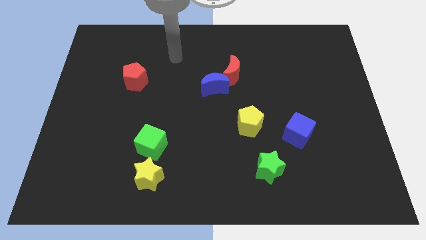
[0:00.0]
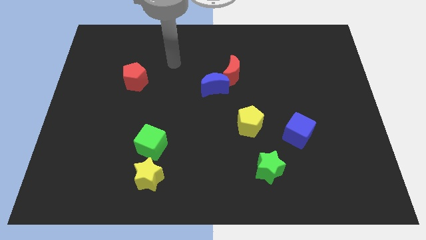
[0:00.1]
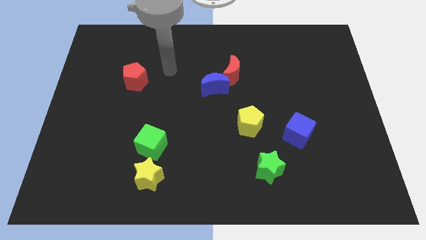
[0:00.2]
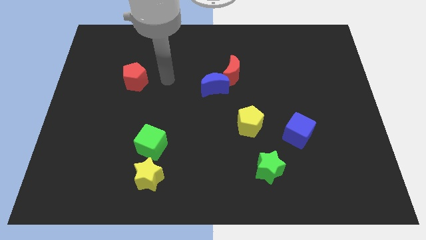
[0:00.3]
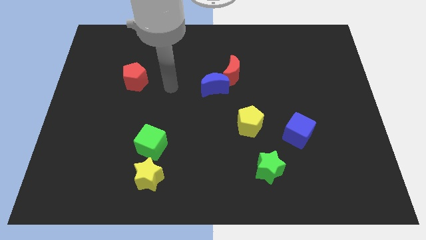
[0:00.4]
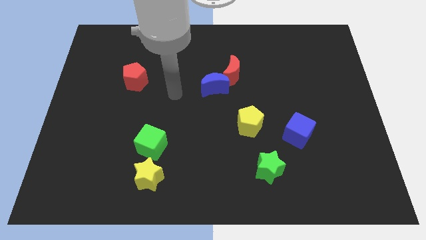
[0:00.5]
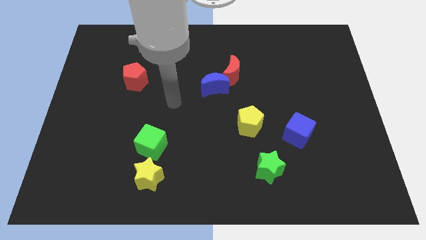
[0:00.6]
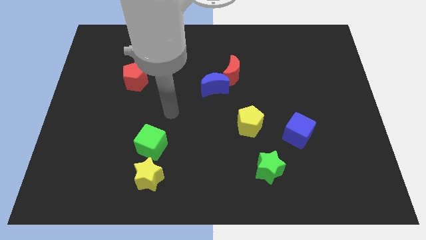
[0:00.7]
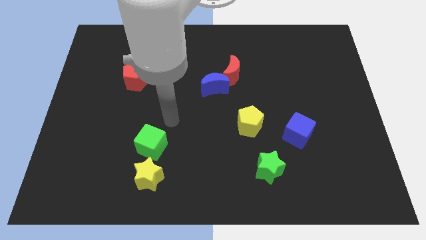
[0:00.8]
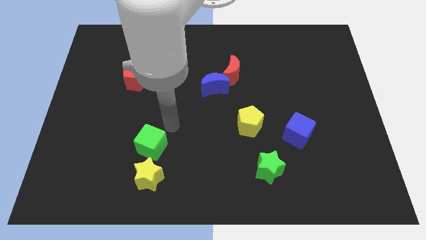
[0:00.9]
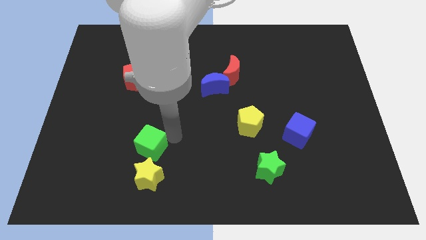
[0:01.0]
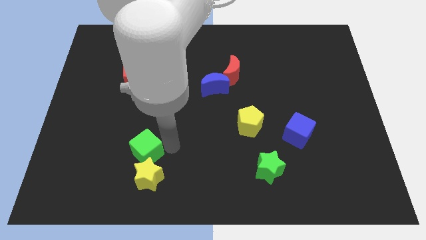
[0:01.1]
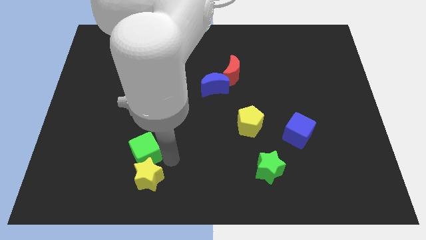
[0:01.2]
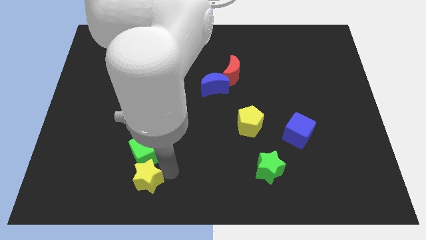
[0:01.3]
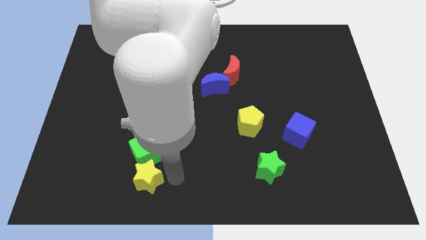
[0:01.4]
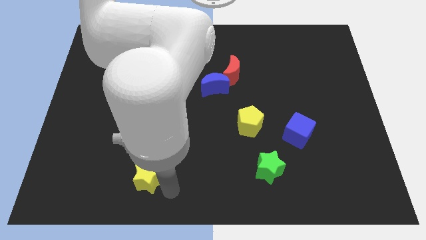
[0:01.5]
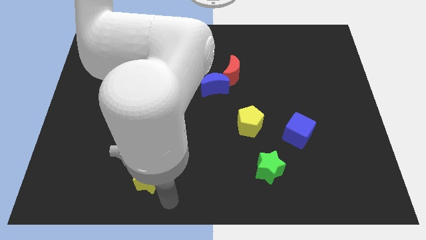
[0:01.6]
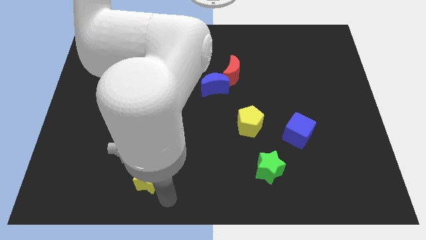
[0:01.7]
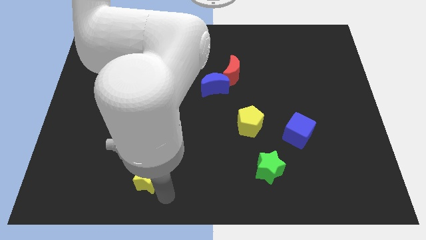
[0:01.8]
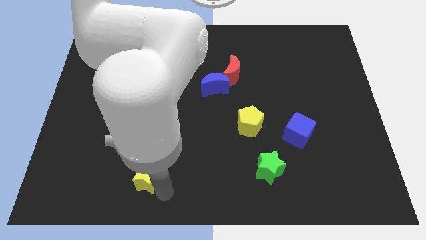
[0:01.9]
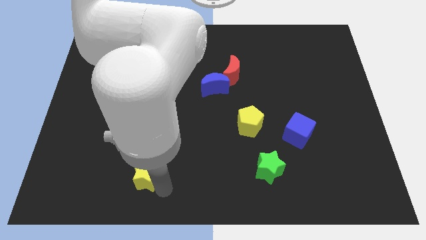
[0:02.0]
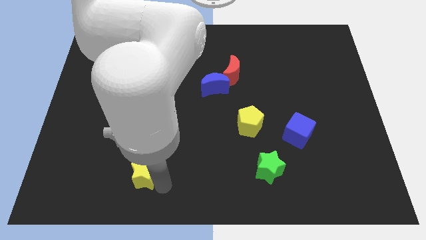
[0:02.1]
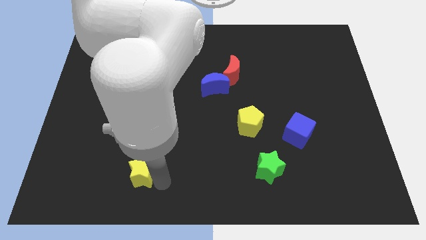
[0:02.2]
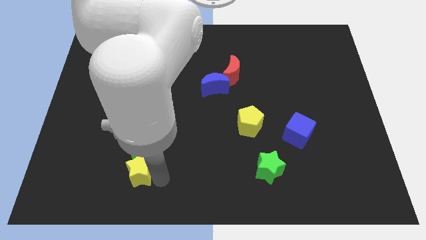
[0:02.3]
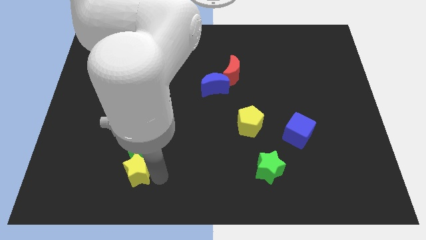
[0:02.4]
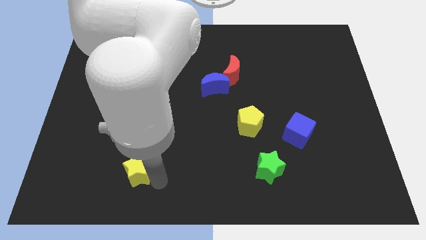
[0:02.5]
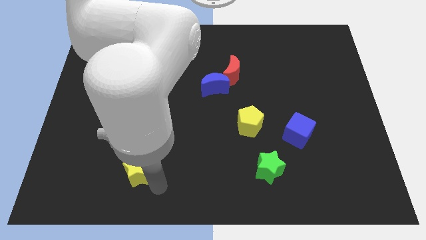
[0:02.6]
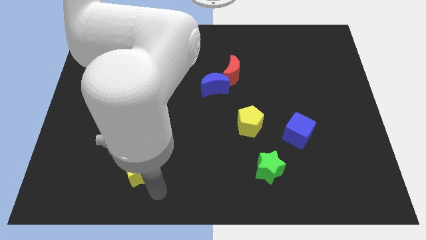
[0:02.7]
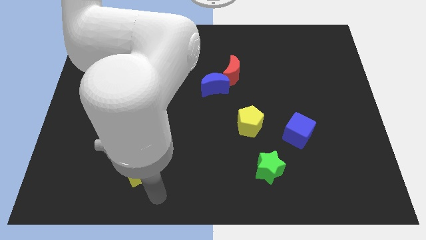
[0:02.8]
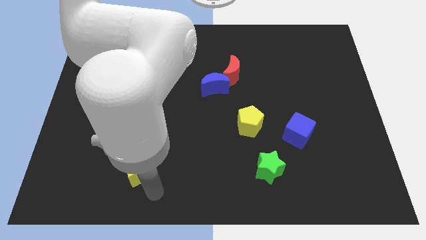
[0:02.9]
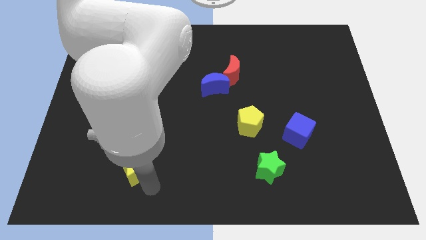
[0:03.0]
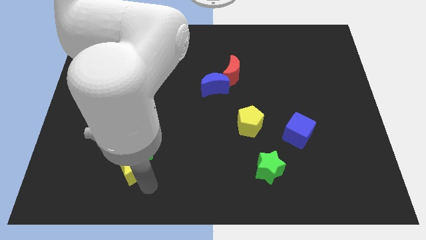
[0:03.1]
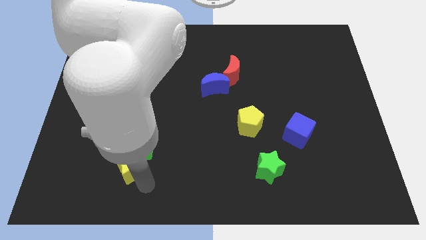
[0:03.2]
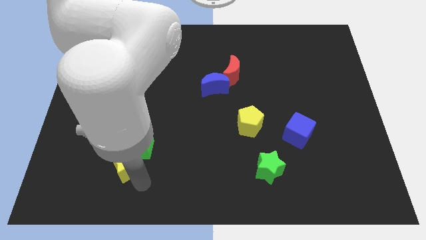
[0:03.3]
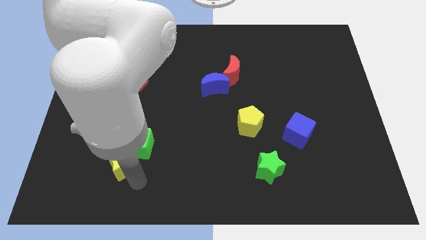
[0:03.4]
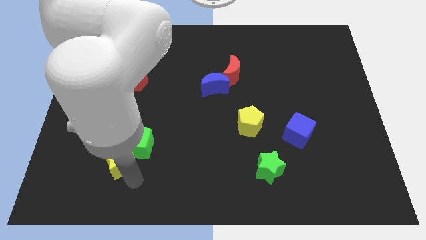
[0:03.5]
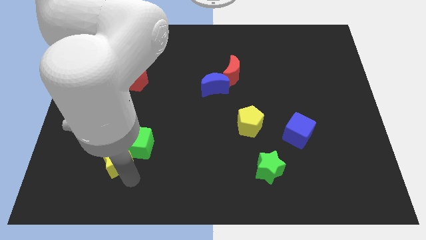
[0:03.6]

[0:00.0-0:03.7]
slide the yellow star up and left diagonally a little

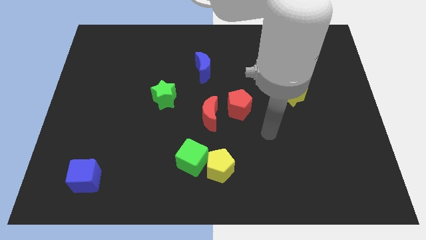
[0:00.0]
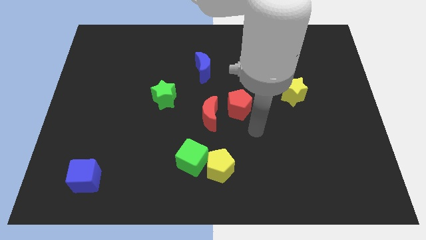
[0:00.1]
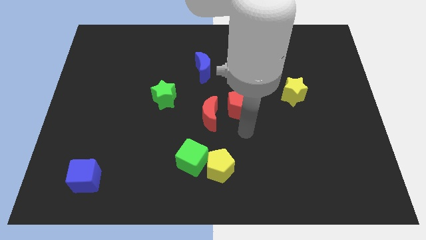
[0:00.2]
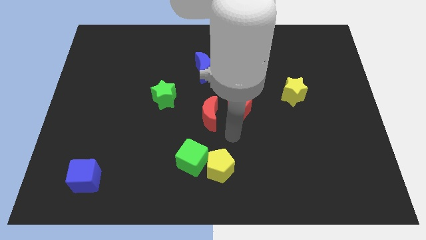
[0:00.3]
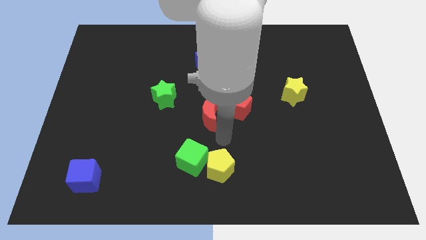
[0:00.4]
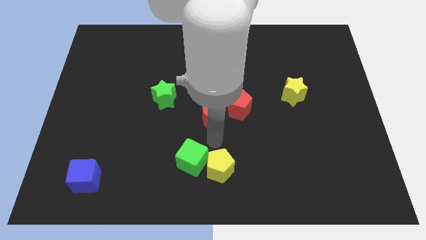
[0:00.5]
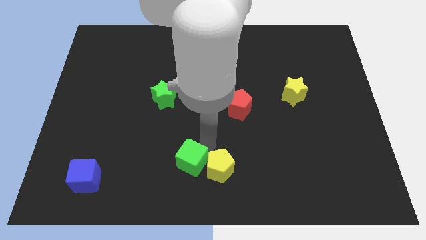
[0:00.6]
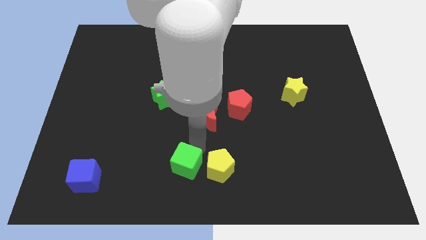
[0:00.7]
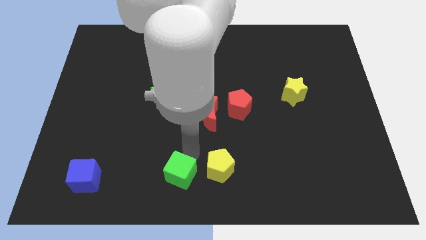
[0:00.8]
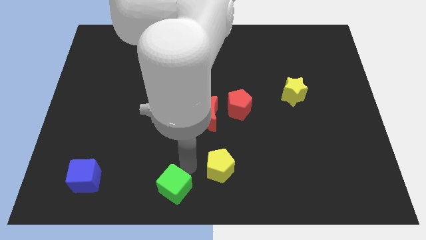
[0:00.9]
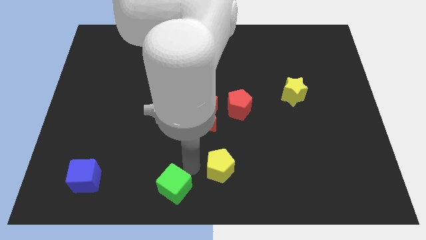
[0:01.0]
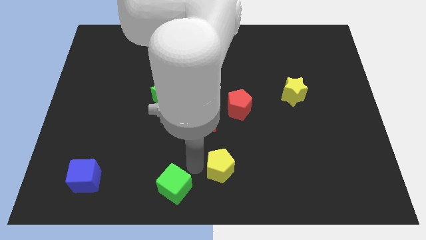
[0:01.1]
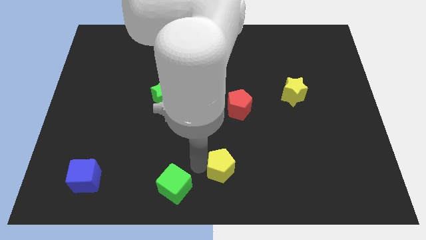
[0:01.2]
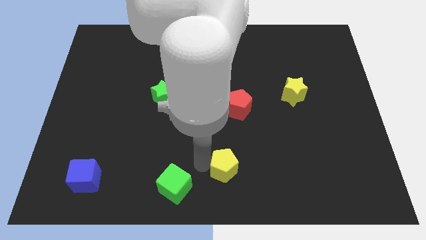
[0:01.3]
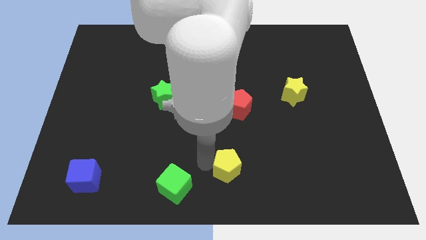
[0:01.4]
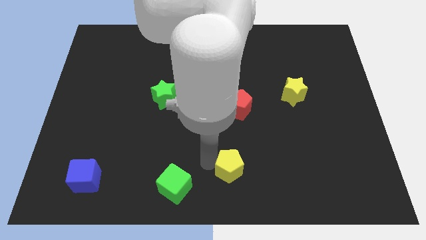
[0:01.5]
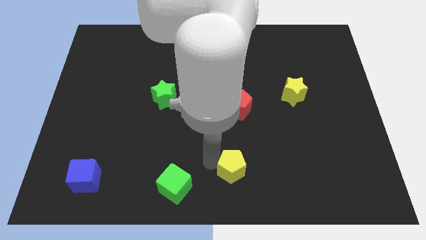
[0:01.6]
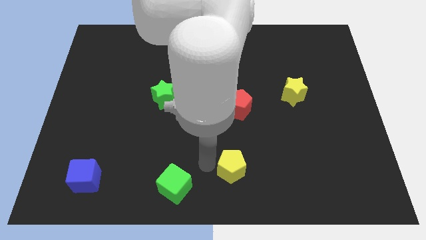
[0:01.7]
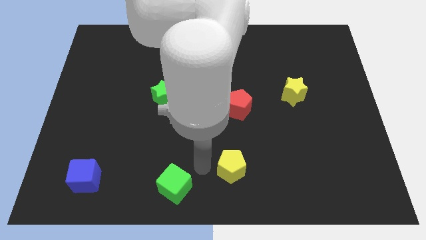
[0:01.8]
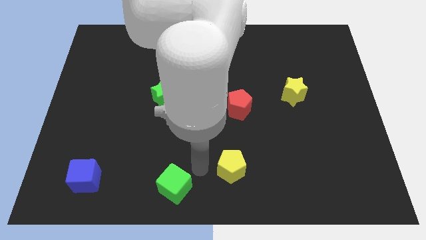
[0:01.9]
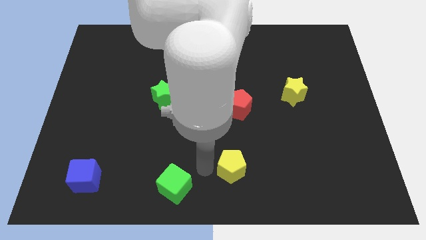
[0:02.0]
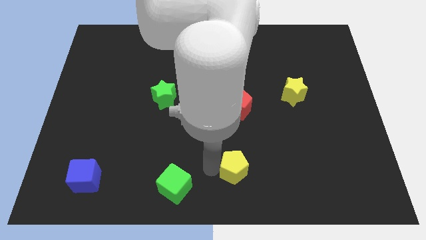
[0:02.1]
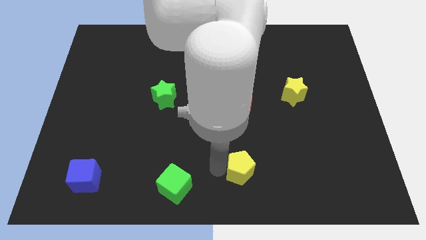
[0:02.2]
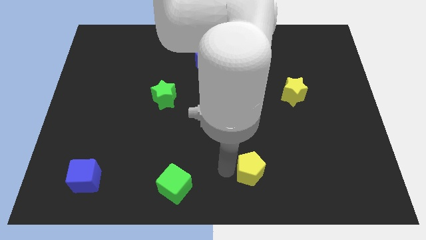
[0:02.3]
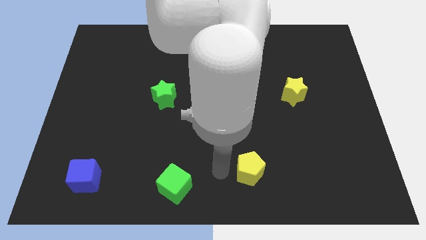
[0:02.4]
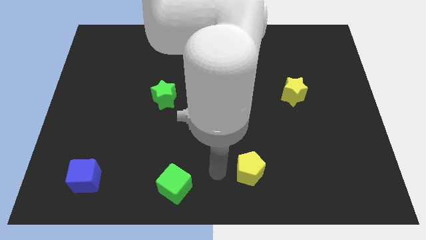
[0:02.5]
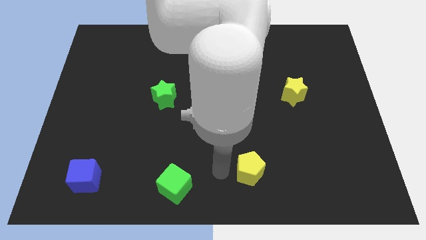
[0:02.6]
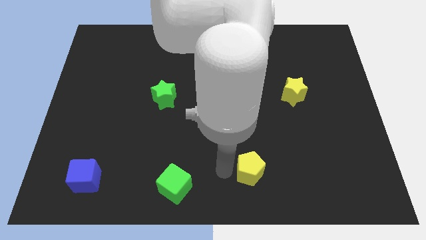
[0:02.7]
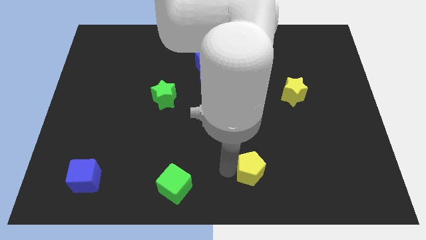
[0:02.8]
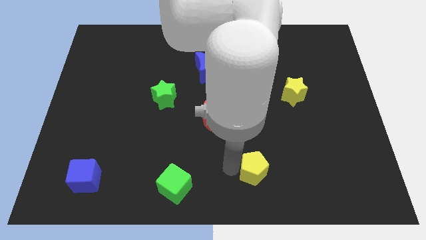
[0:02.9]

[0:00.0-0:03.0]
move the yellow pentagon a little to the right

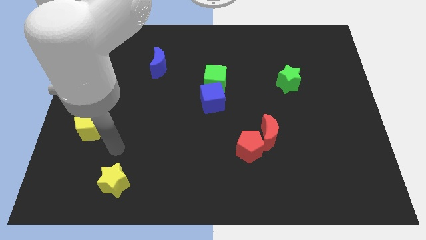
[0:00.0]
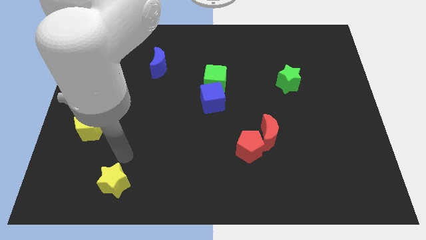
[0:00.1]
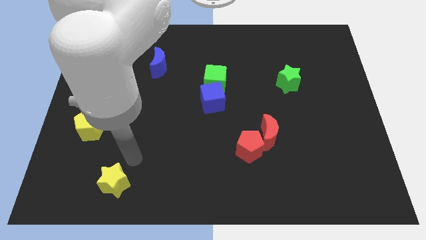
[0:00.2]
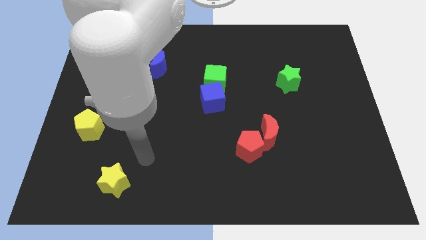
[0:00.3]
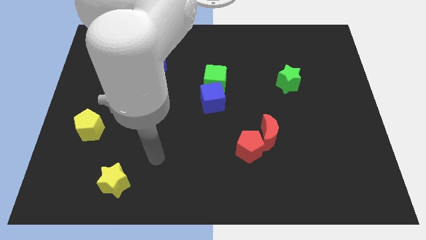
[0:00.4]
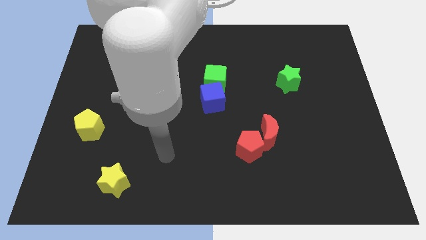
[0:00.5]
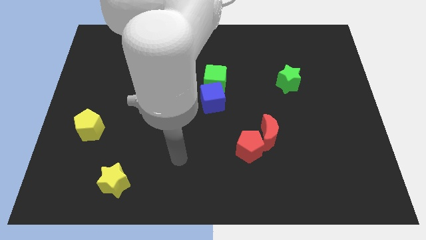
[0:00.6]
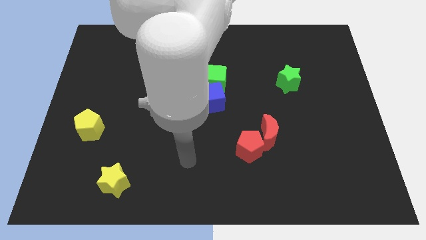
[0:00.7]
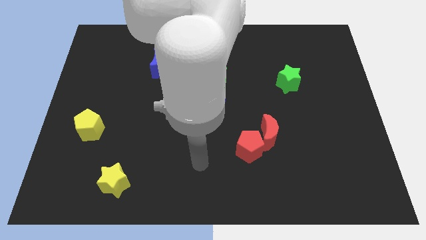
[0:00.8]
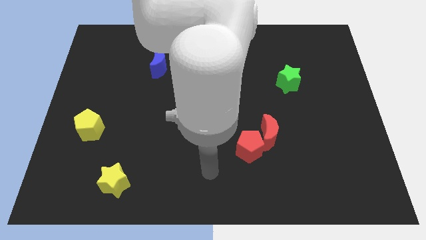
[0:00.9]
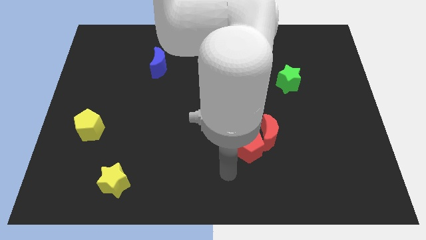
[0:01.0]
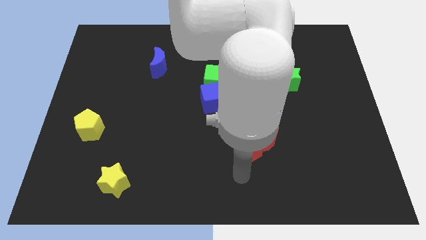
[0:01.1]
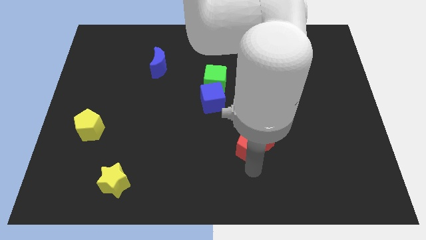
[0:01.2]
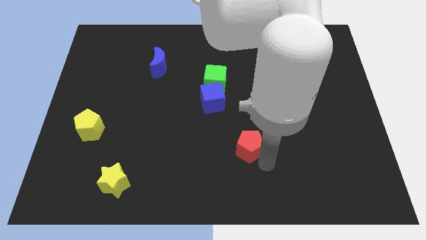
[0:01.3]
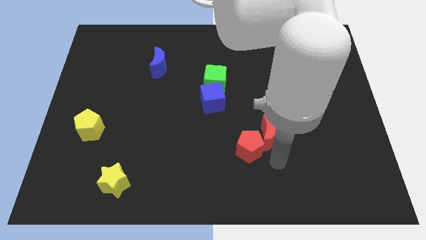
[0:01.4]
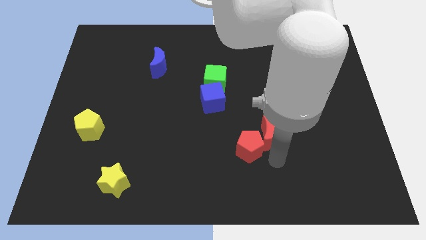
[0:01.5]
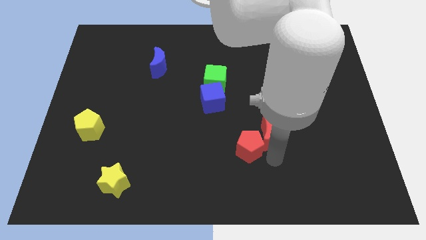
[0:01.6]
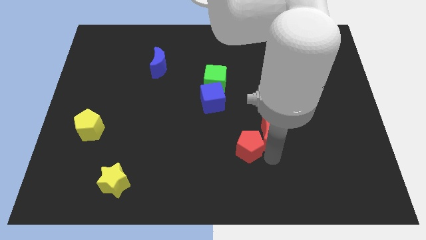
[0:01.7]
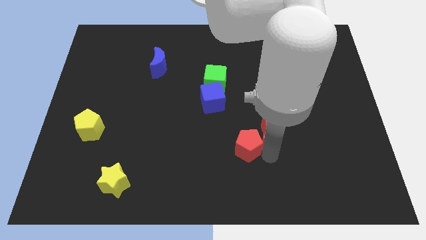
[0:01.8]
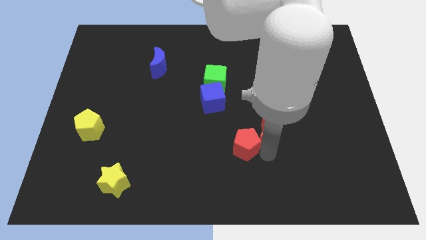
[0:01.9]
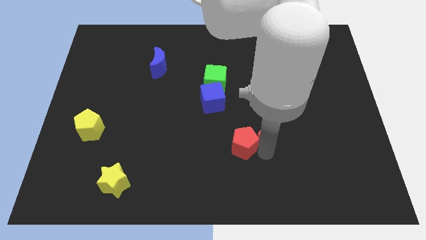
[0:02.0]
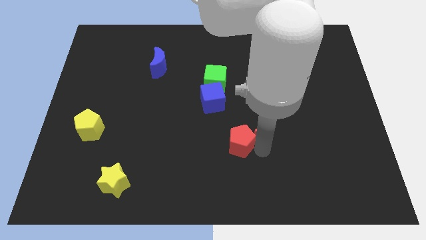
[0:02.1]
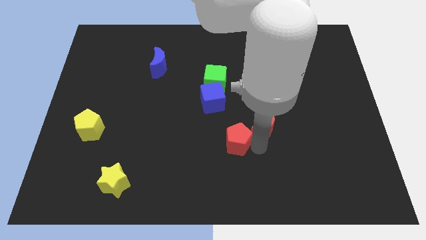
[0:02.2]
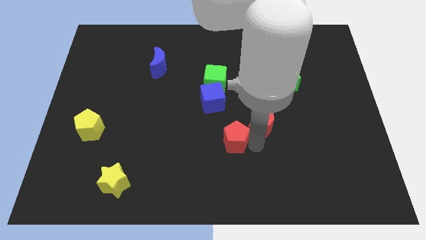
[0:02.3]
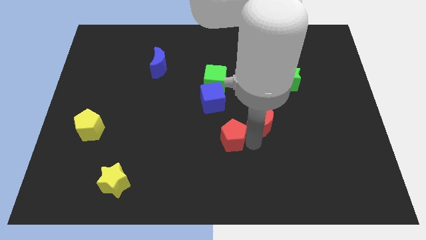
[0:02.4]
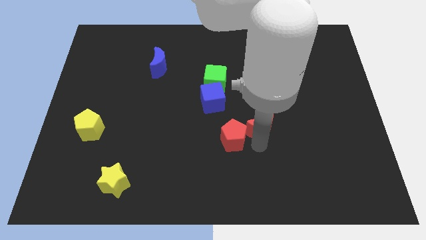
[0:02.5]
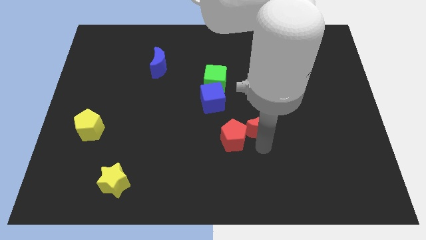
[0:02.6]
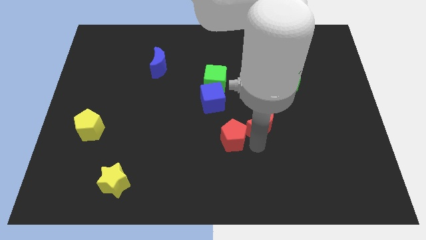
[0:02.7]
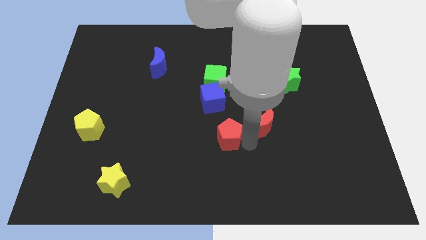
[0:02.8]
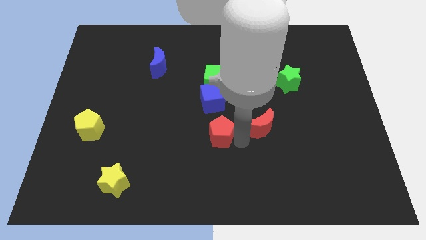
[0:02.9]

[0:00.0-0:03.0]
slightly slide the red pentagon up and left
